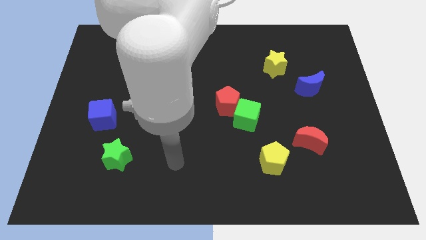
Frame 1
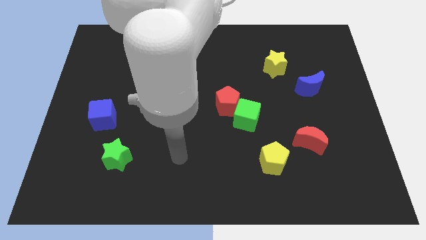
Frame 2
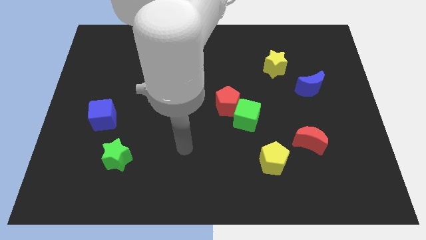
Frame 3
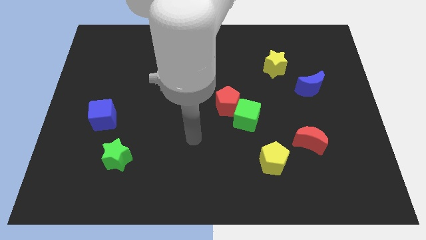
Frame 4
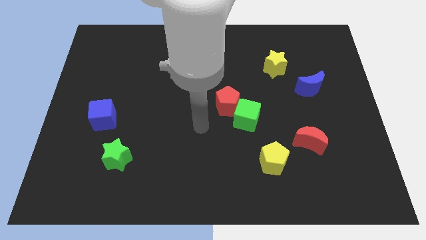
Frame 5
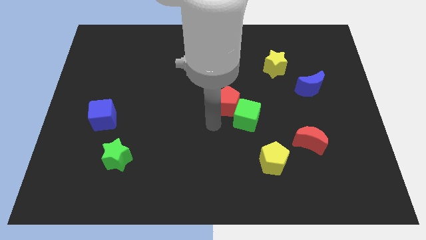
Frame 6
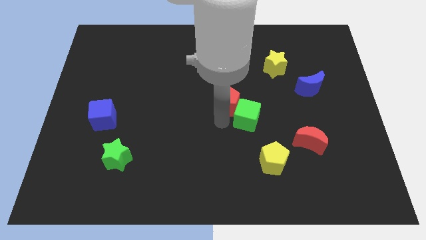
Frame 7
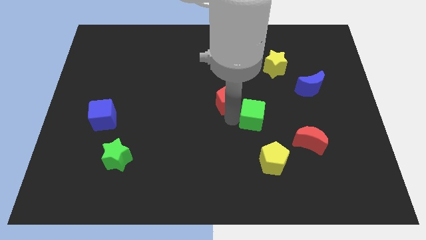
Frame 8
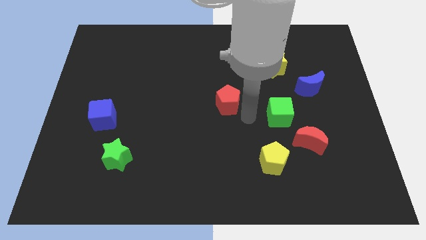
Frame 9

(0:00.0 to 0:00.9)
move the red pentagon away from the green cube

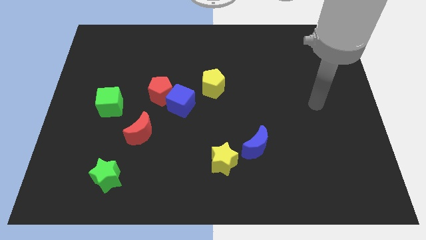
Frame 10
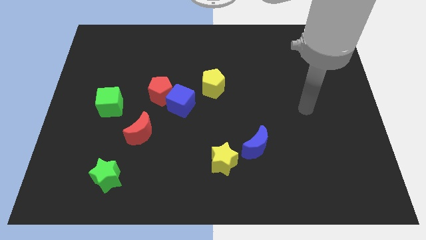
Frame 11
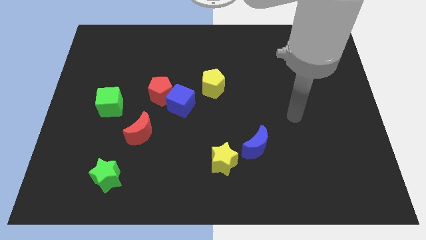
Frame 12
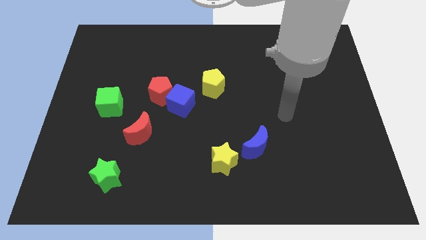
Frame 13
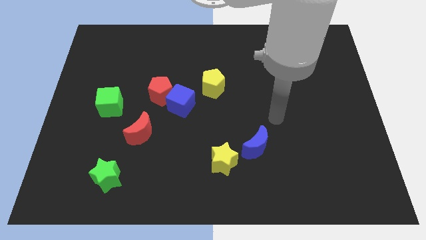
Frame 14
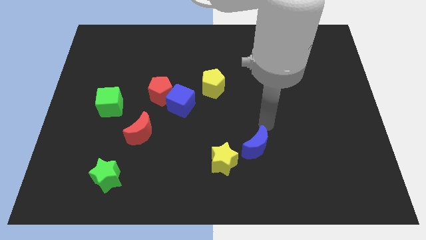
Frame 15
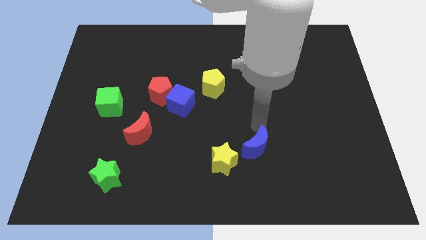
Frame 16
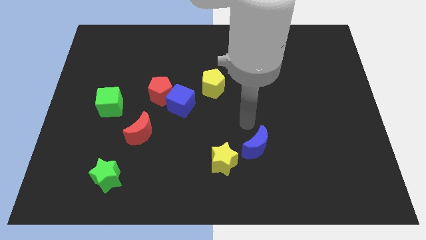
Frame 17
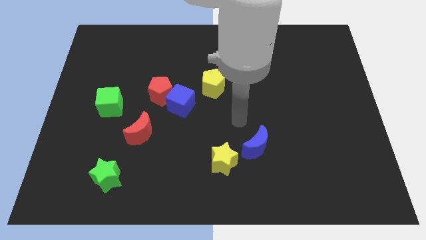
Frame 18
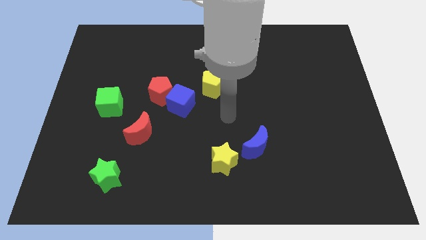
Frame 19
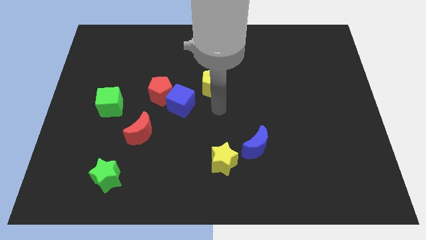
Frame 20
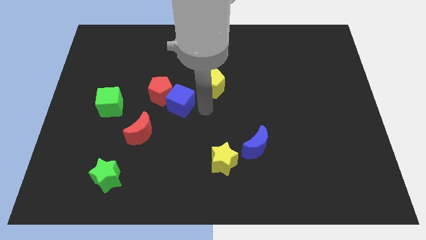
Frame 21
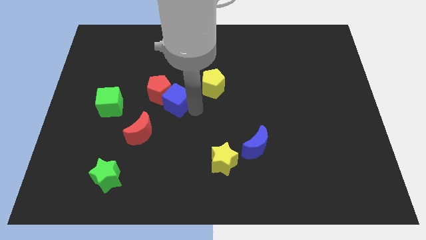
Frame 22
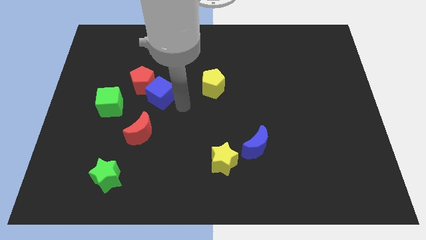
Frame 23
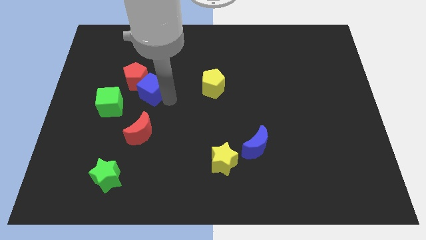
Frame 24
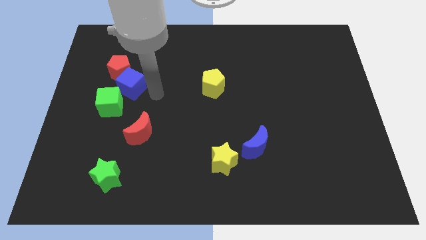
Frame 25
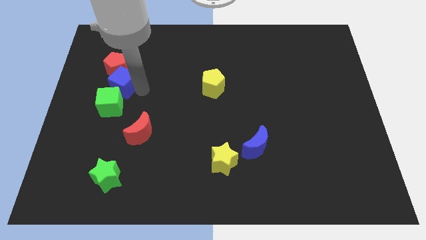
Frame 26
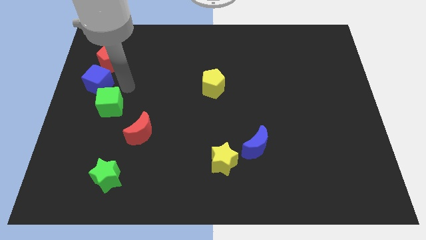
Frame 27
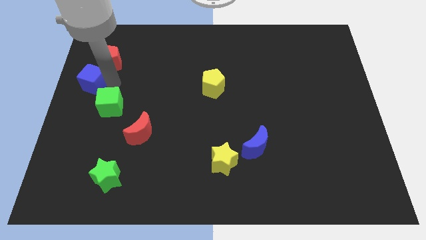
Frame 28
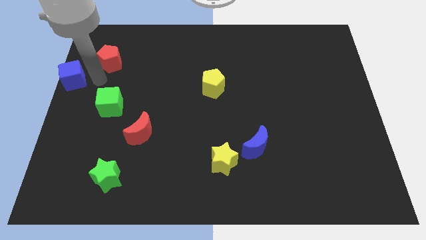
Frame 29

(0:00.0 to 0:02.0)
pull the red pentagon apart from the blue cube

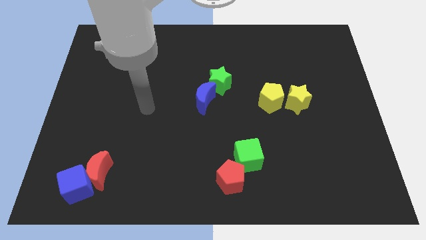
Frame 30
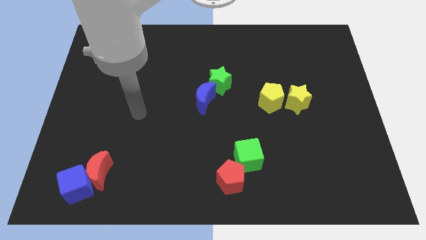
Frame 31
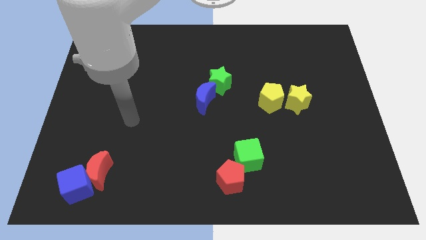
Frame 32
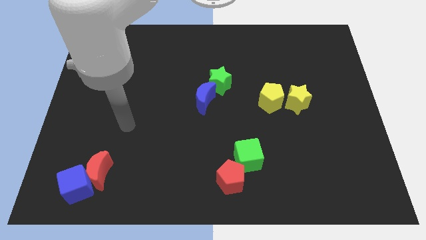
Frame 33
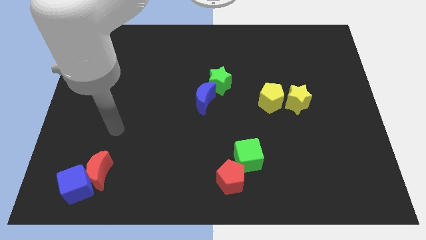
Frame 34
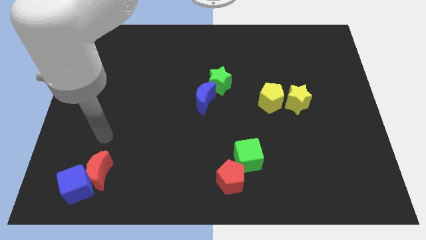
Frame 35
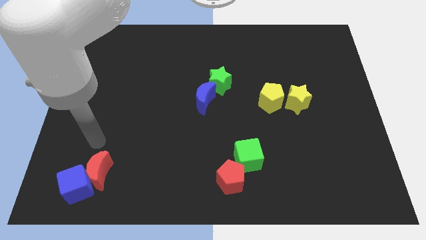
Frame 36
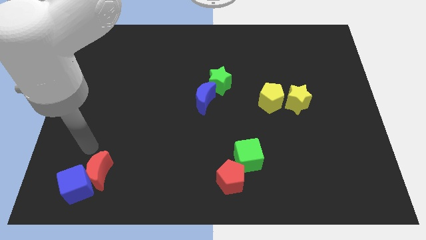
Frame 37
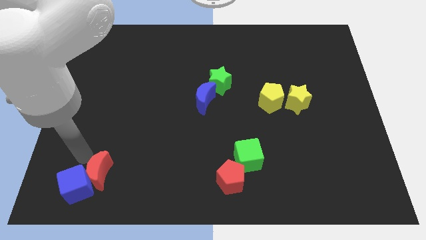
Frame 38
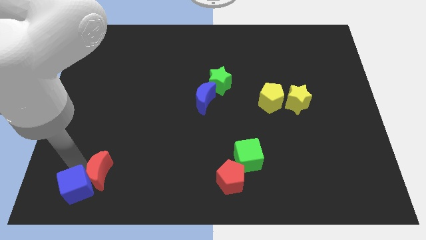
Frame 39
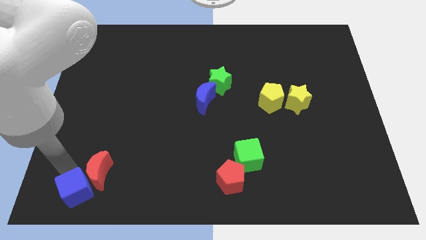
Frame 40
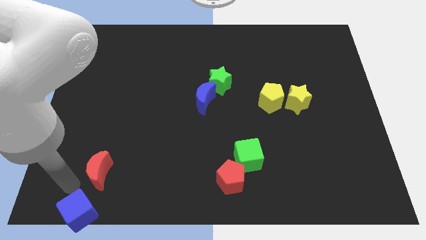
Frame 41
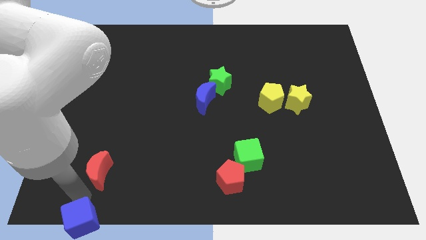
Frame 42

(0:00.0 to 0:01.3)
pull the red moon apart from the blue cube

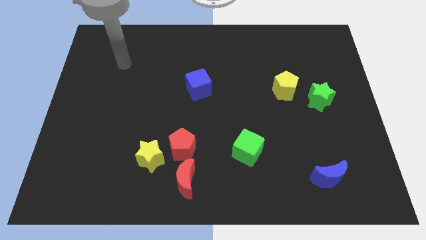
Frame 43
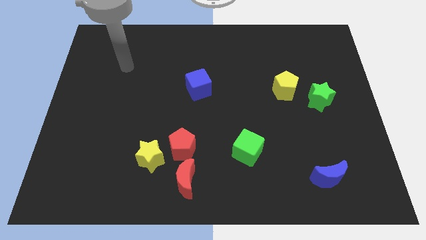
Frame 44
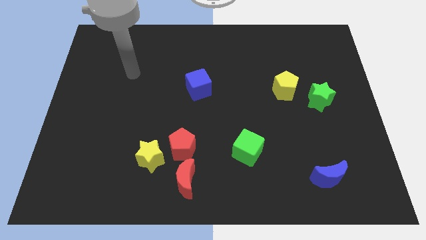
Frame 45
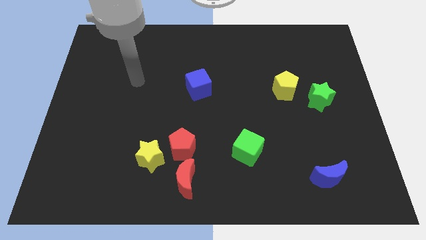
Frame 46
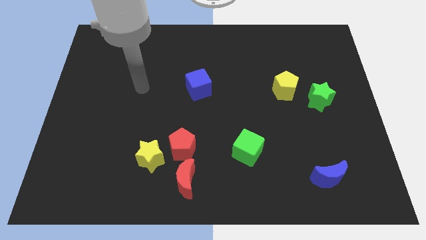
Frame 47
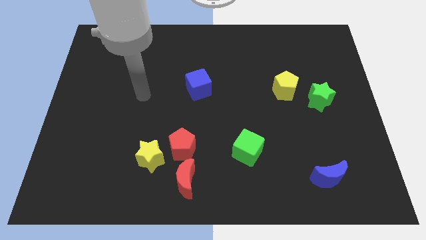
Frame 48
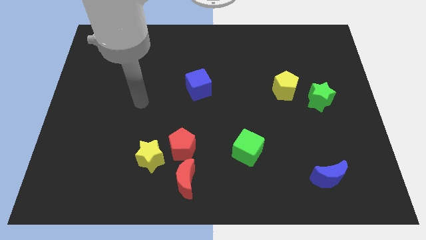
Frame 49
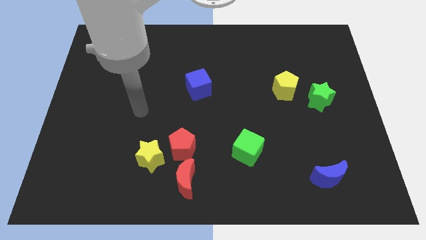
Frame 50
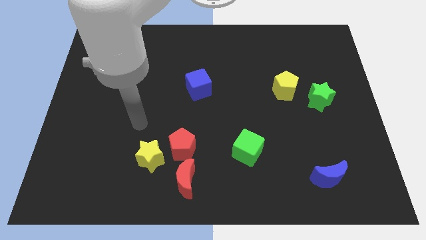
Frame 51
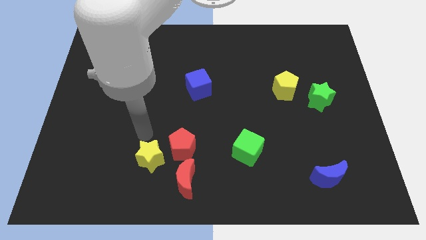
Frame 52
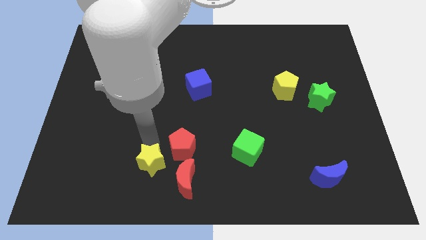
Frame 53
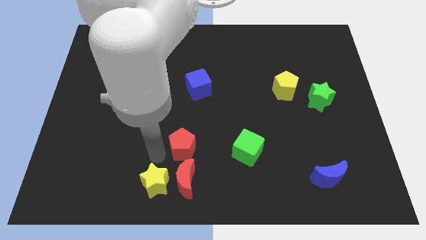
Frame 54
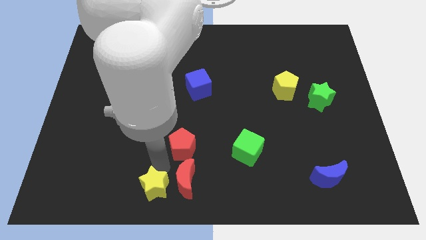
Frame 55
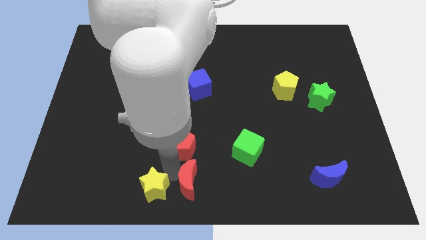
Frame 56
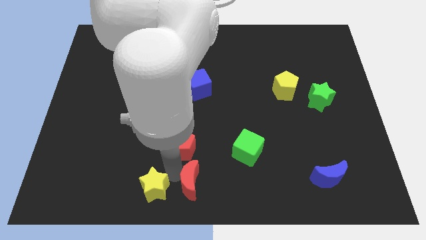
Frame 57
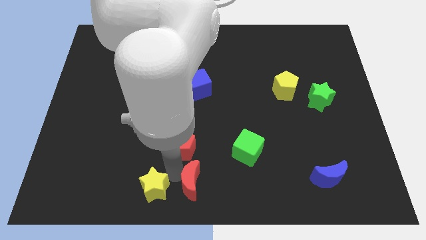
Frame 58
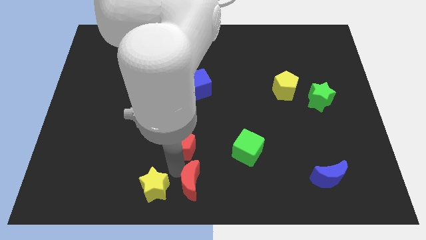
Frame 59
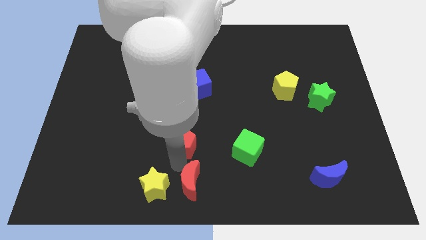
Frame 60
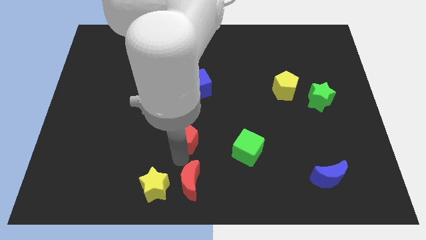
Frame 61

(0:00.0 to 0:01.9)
pull the red pentagon apart from the yellow star and red moon

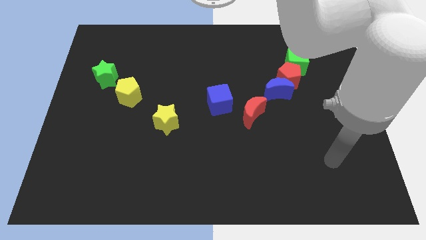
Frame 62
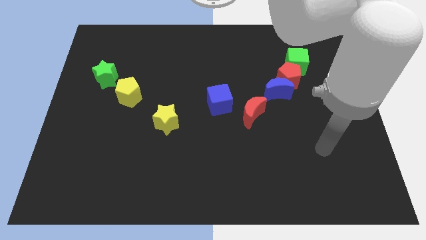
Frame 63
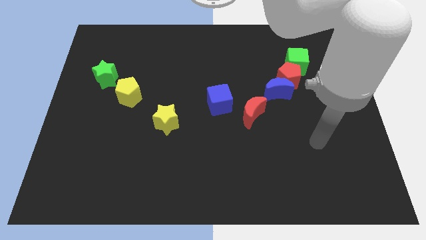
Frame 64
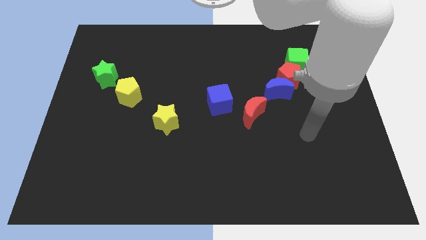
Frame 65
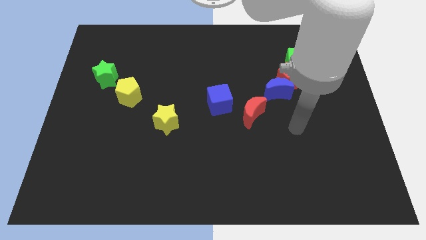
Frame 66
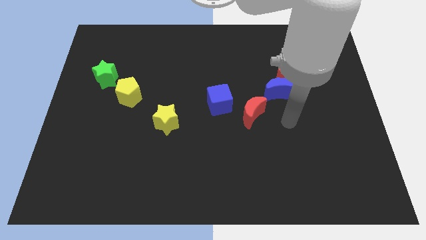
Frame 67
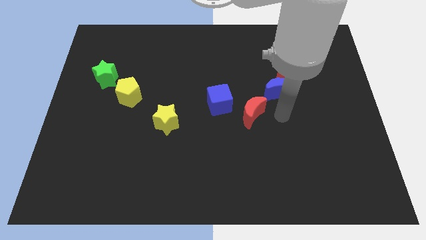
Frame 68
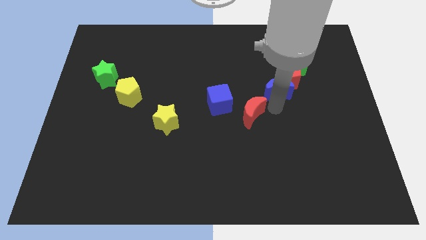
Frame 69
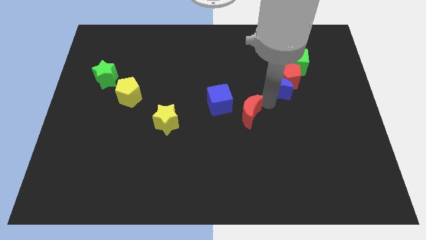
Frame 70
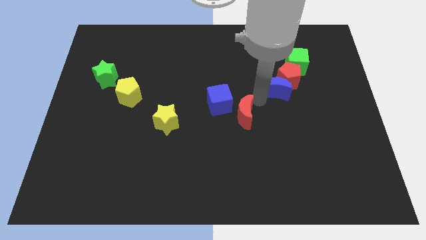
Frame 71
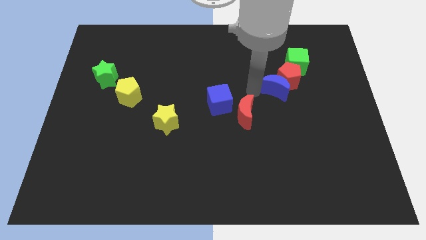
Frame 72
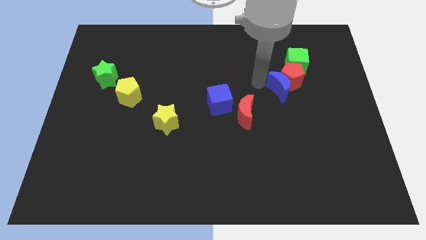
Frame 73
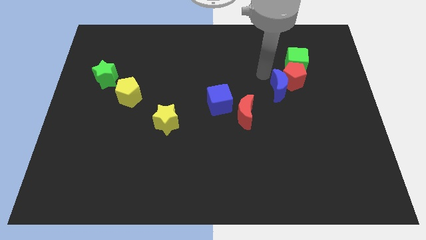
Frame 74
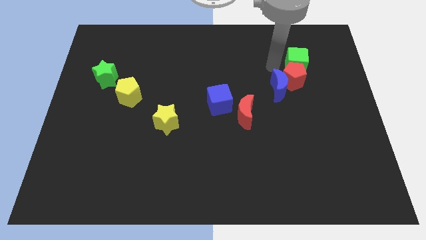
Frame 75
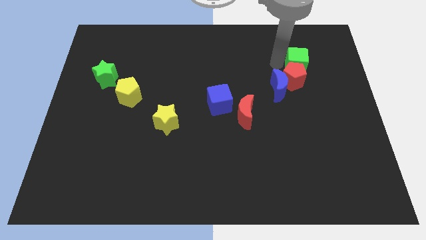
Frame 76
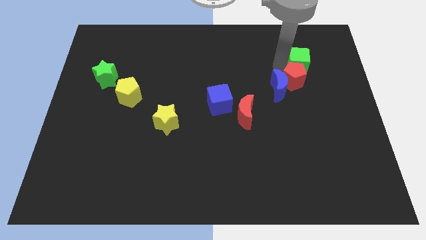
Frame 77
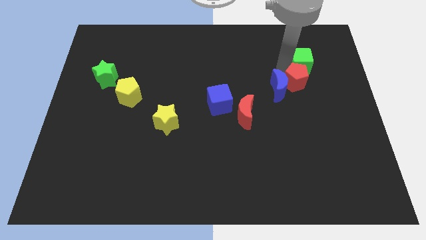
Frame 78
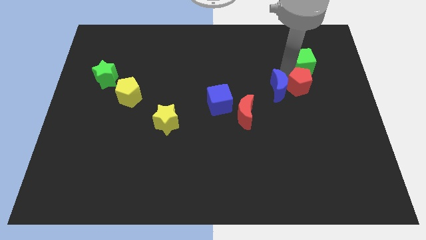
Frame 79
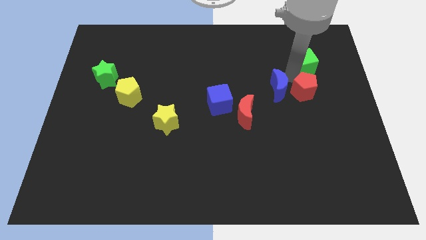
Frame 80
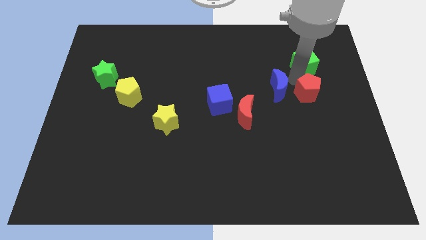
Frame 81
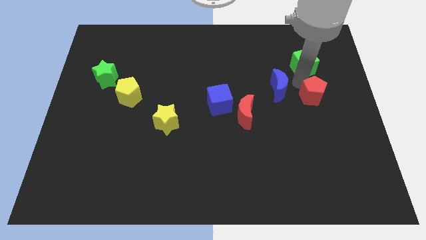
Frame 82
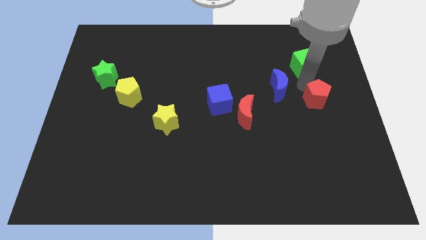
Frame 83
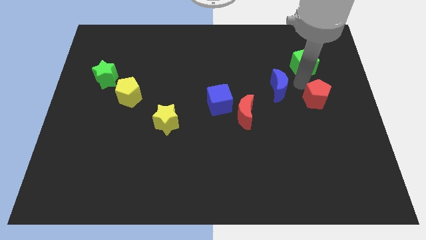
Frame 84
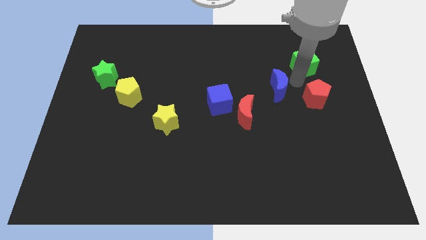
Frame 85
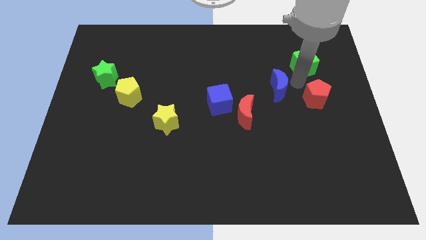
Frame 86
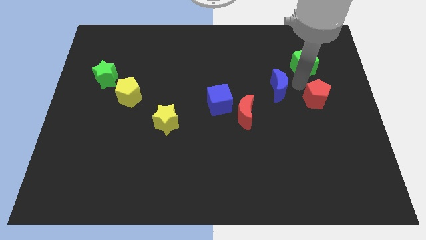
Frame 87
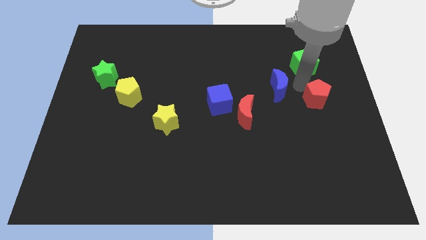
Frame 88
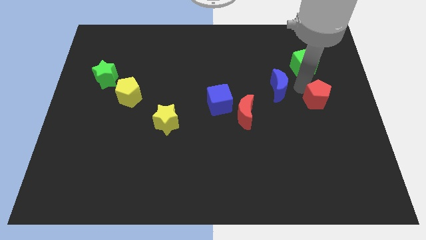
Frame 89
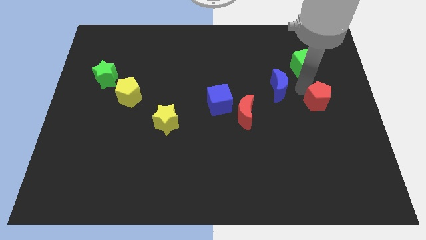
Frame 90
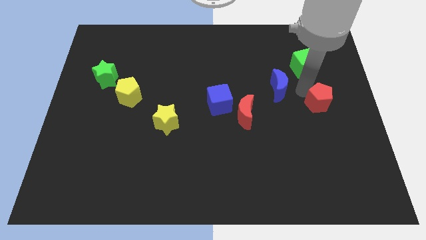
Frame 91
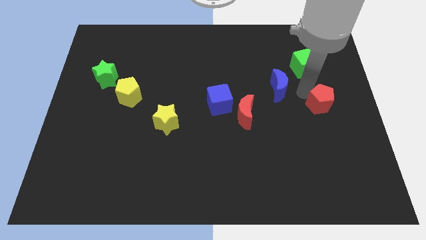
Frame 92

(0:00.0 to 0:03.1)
separate the red pentagon from the blue moon and green cube
